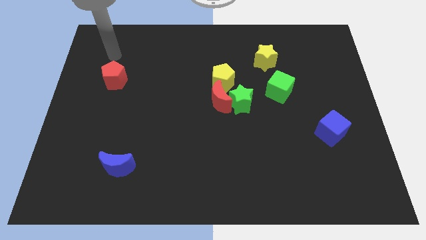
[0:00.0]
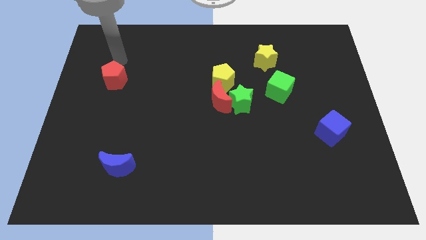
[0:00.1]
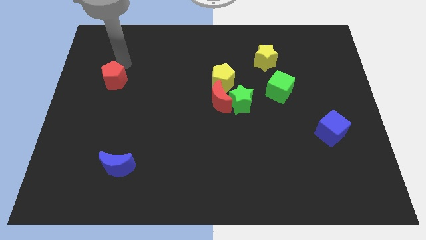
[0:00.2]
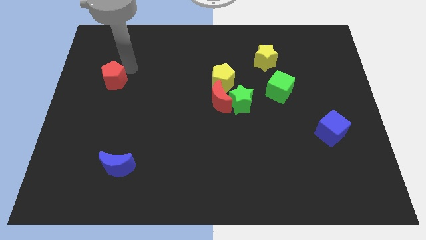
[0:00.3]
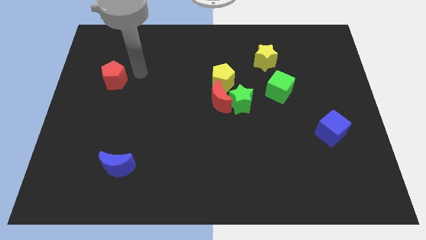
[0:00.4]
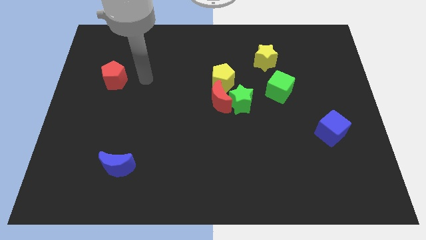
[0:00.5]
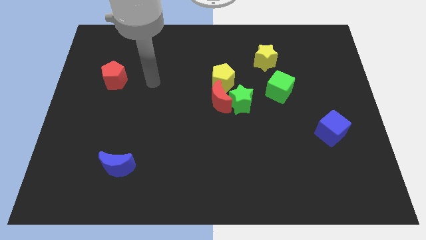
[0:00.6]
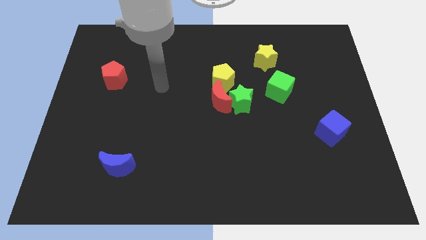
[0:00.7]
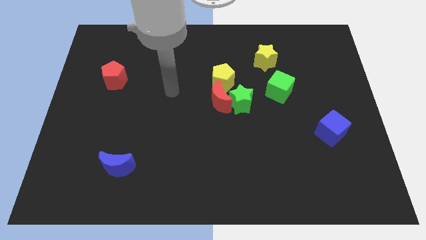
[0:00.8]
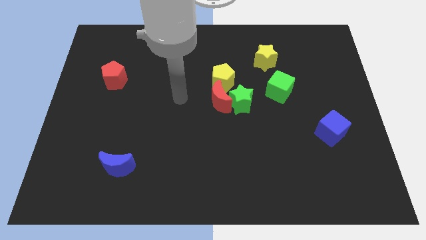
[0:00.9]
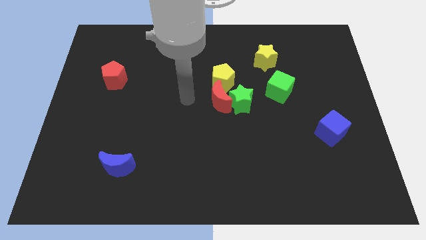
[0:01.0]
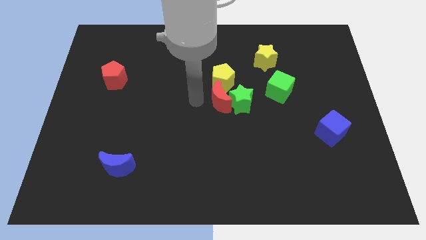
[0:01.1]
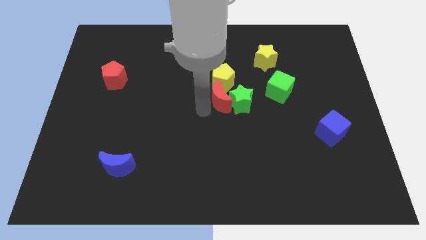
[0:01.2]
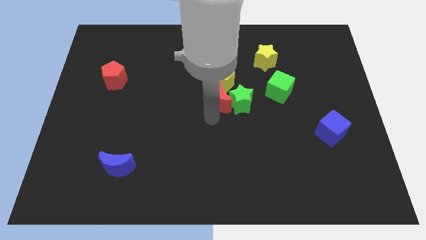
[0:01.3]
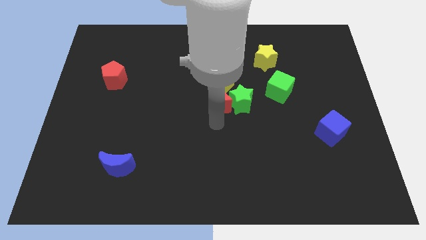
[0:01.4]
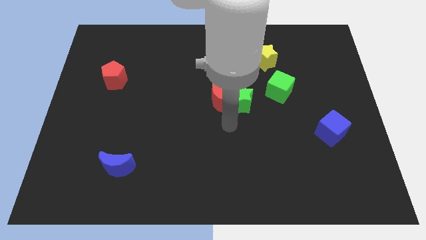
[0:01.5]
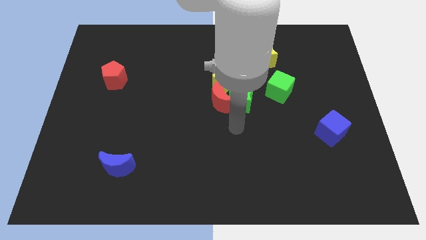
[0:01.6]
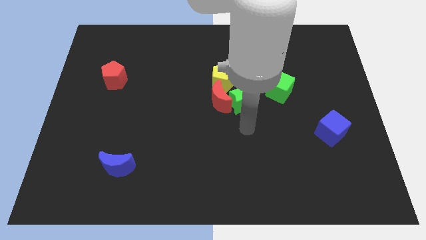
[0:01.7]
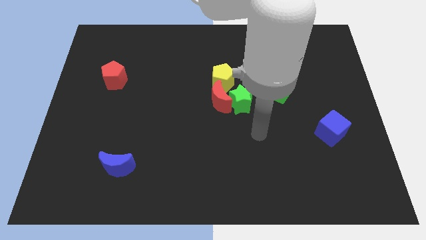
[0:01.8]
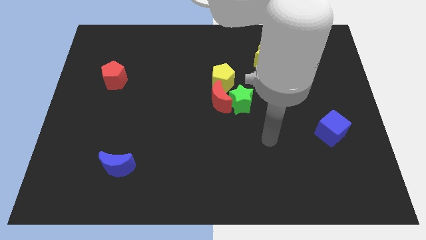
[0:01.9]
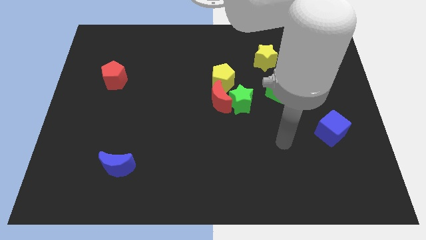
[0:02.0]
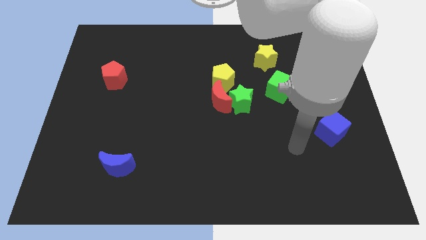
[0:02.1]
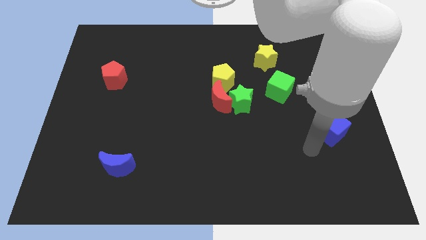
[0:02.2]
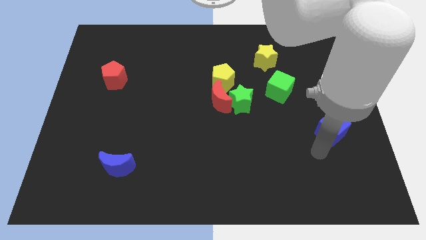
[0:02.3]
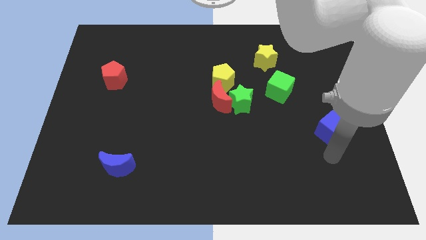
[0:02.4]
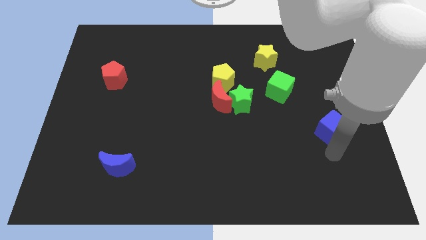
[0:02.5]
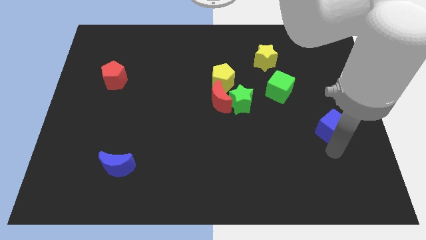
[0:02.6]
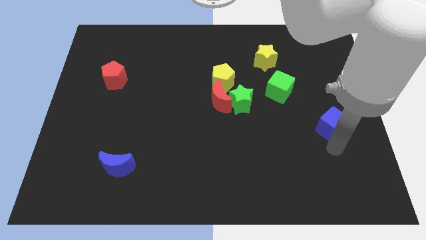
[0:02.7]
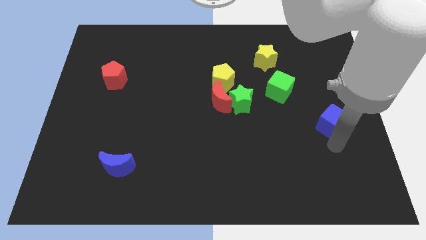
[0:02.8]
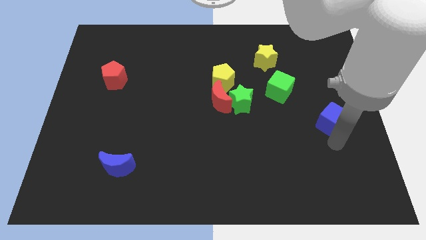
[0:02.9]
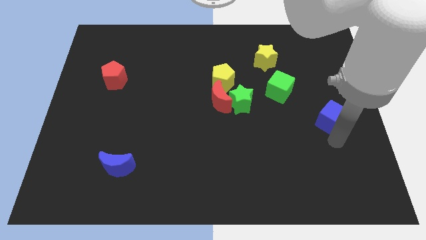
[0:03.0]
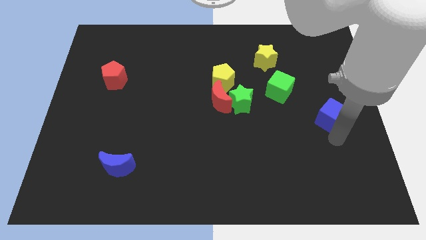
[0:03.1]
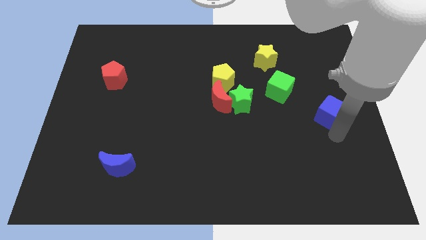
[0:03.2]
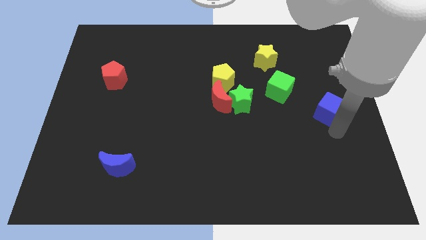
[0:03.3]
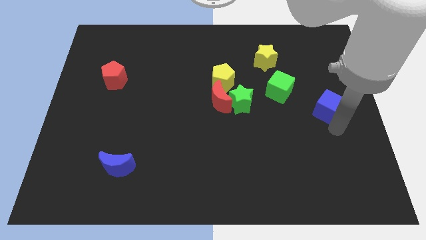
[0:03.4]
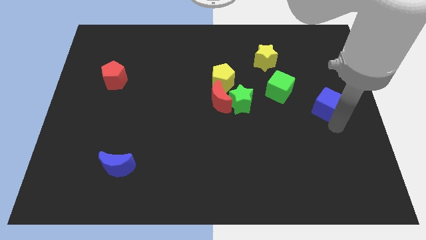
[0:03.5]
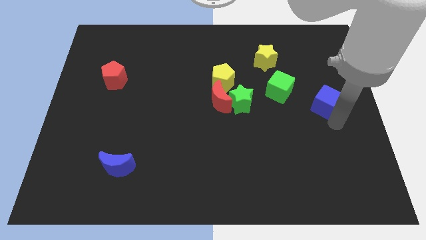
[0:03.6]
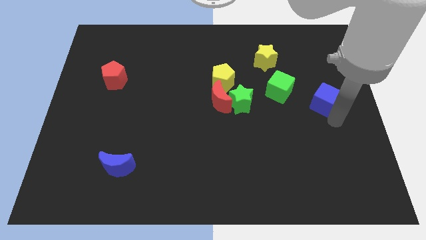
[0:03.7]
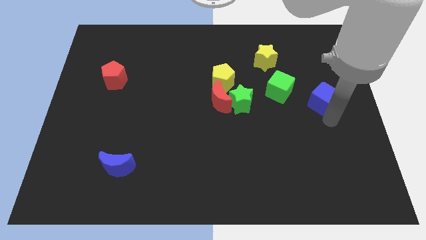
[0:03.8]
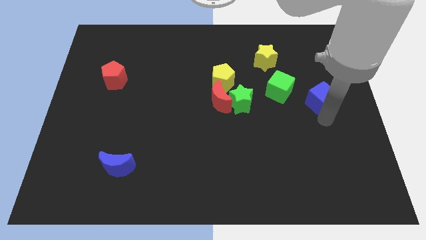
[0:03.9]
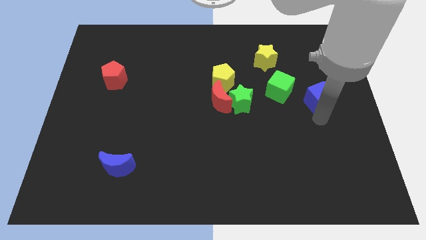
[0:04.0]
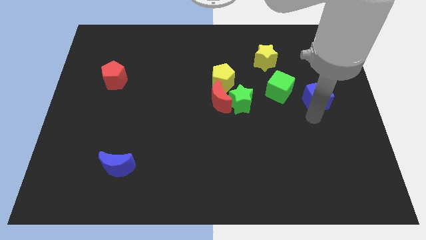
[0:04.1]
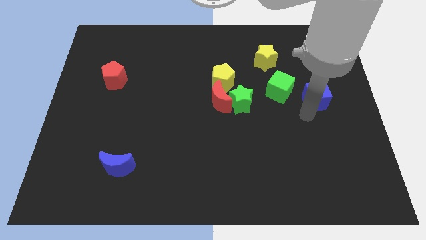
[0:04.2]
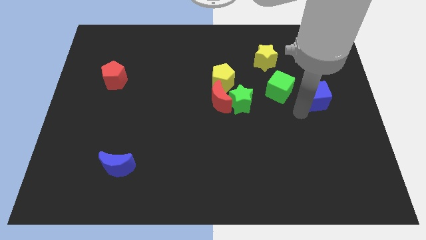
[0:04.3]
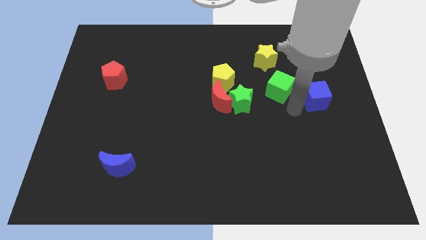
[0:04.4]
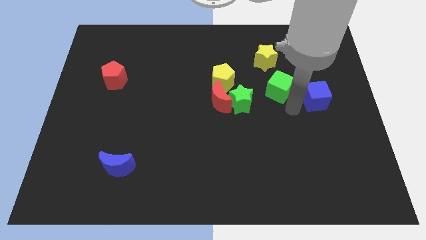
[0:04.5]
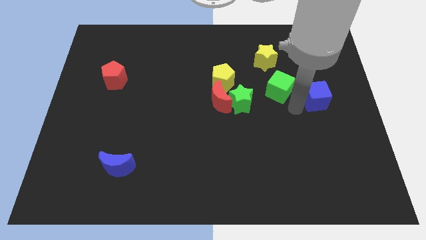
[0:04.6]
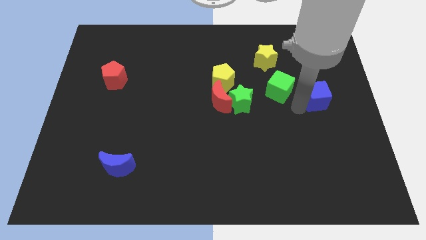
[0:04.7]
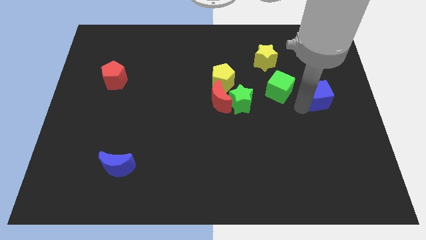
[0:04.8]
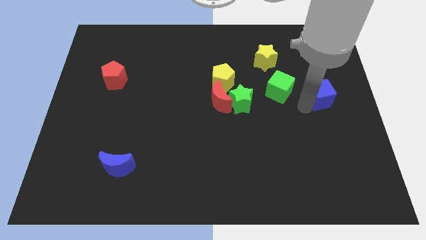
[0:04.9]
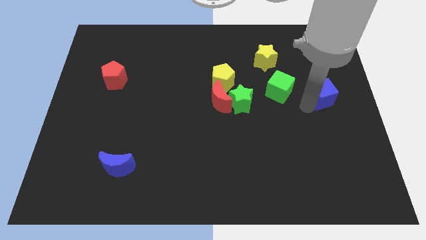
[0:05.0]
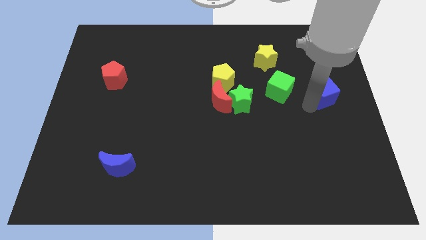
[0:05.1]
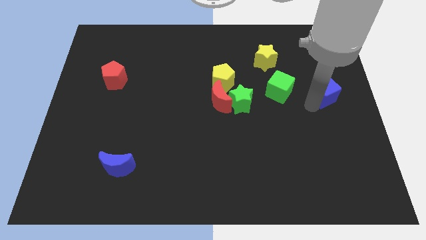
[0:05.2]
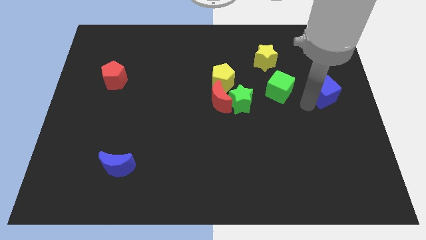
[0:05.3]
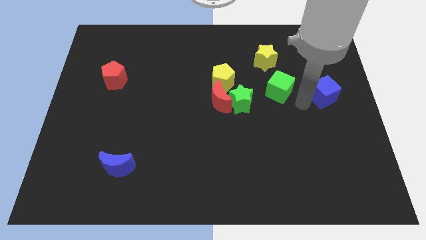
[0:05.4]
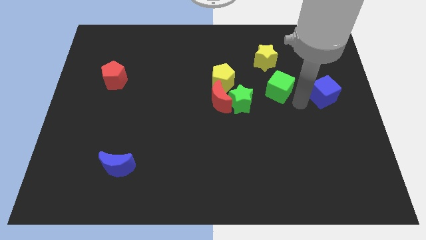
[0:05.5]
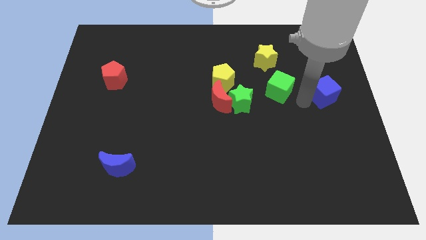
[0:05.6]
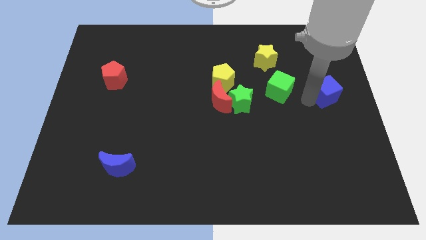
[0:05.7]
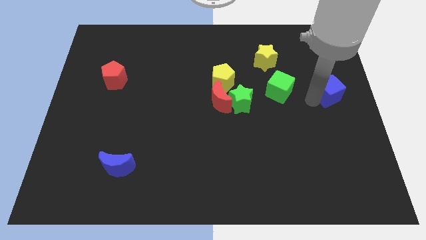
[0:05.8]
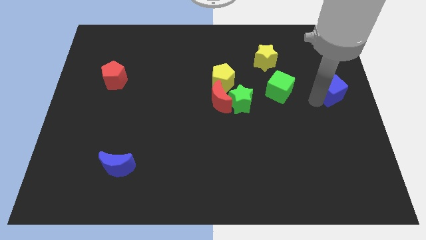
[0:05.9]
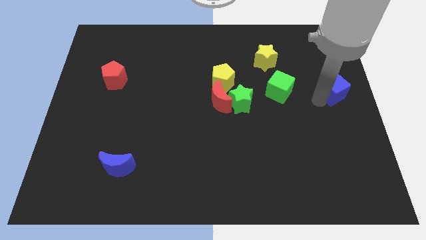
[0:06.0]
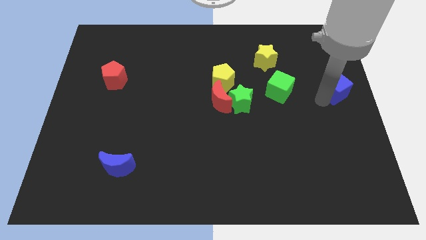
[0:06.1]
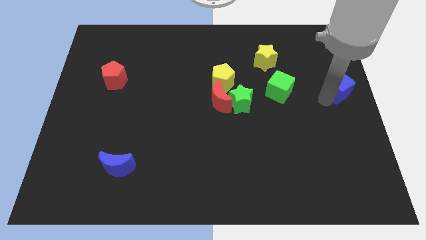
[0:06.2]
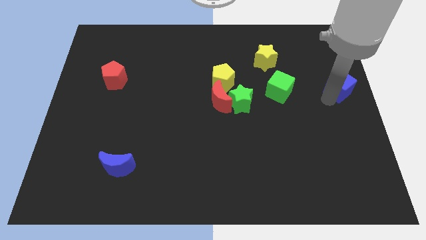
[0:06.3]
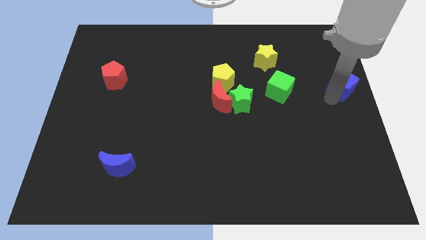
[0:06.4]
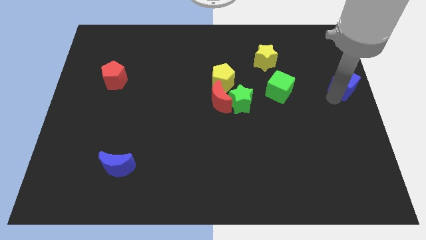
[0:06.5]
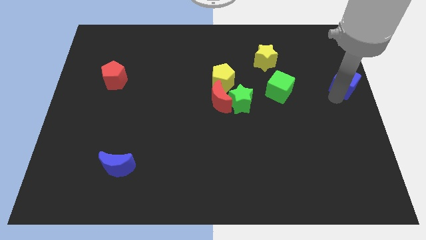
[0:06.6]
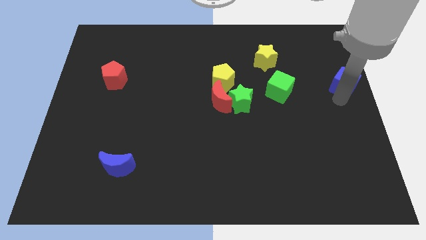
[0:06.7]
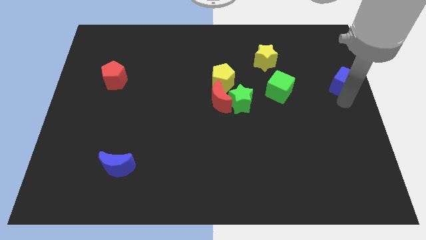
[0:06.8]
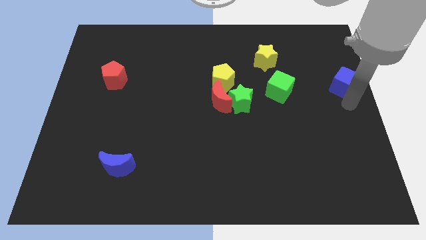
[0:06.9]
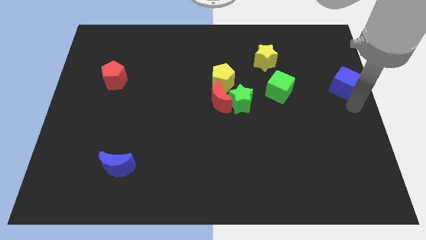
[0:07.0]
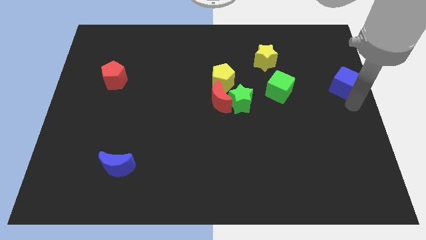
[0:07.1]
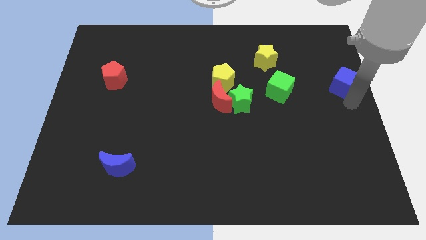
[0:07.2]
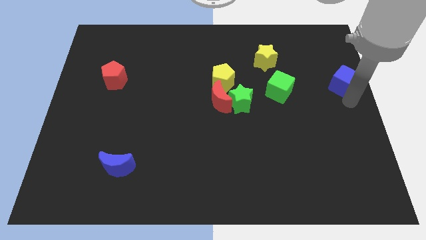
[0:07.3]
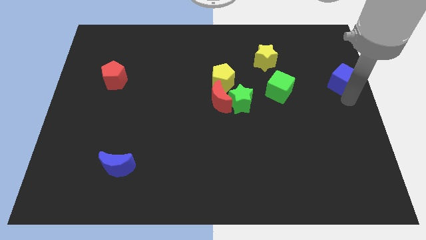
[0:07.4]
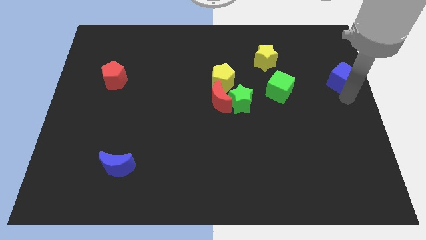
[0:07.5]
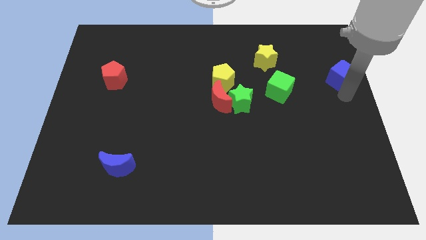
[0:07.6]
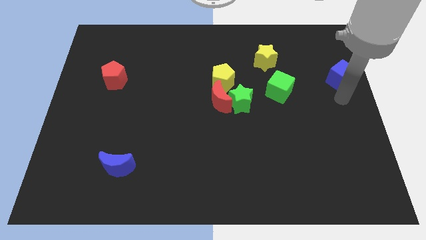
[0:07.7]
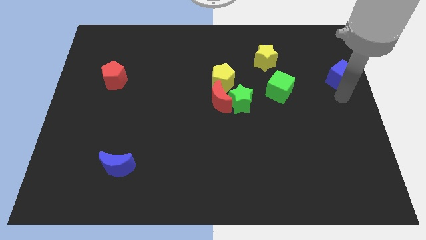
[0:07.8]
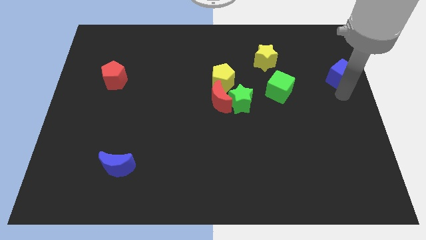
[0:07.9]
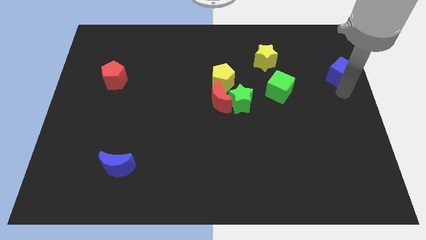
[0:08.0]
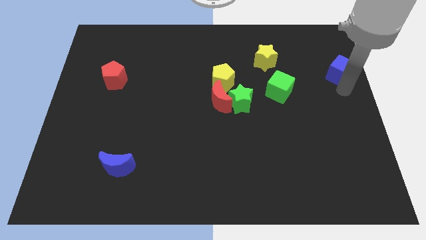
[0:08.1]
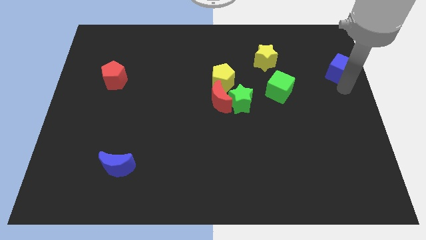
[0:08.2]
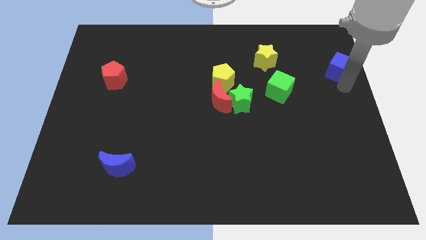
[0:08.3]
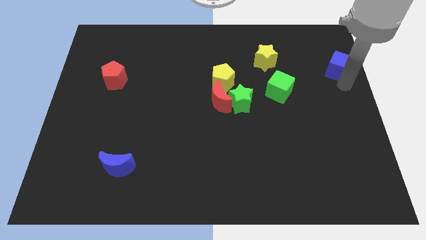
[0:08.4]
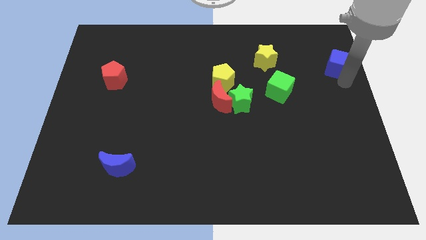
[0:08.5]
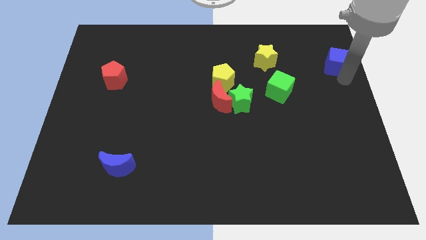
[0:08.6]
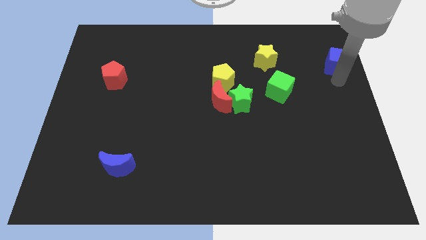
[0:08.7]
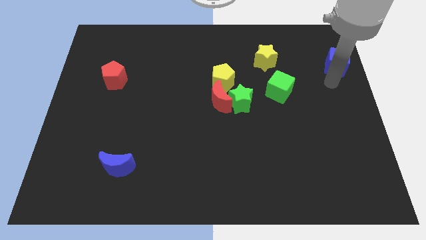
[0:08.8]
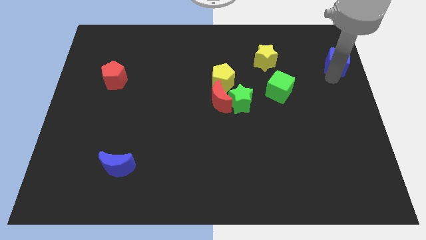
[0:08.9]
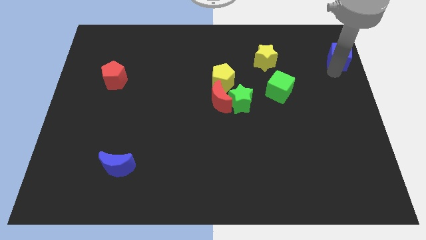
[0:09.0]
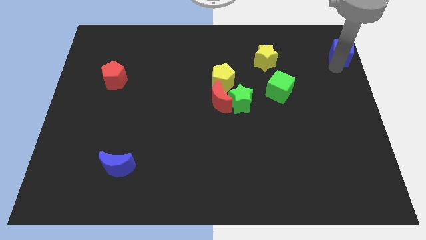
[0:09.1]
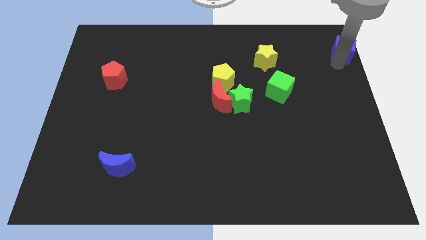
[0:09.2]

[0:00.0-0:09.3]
slide the blue cube to the top right of the board
